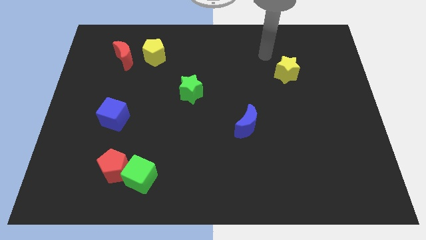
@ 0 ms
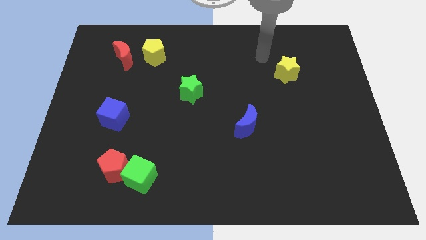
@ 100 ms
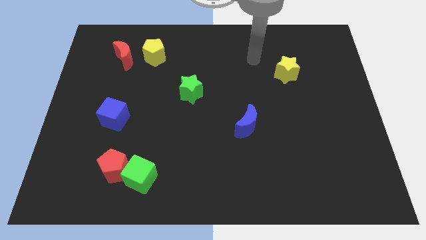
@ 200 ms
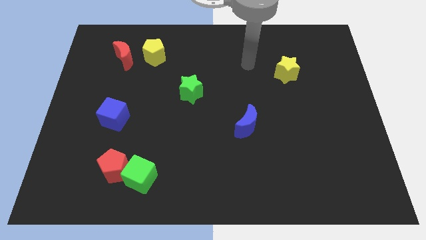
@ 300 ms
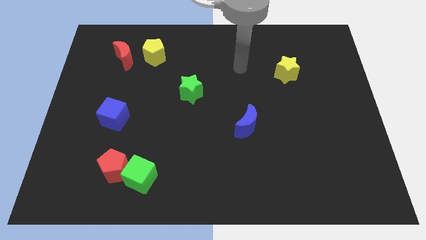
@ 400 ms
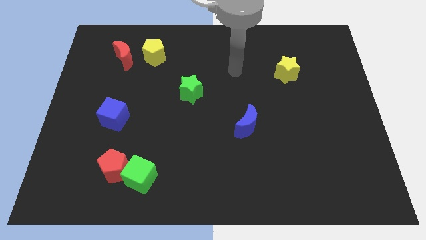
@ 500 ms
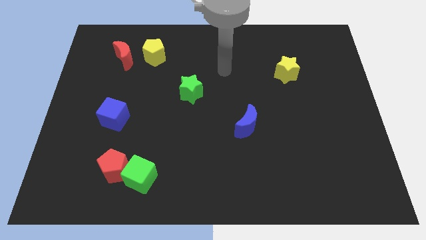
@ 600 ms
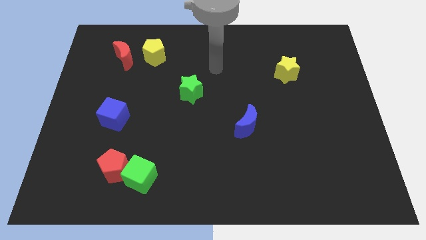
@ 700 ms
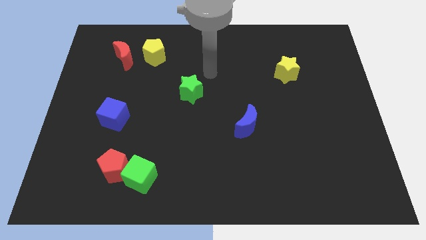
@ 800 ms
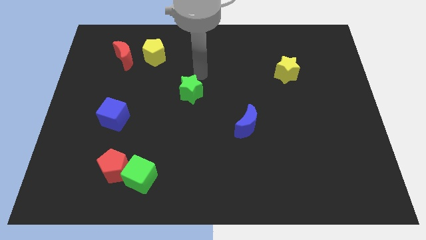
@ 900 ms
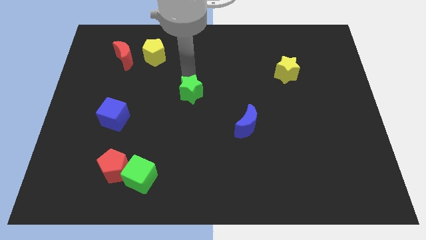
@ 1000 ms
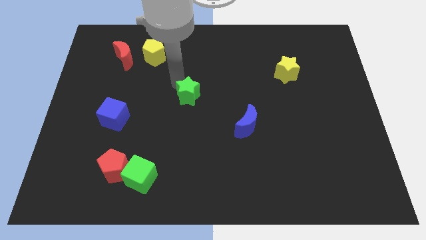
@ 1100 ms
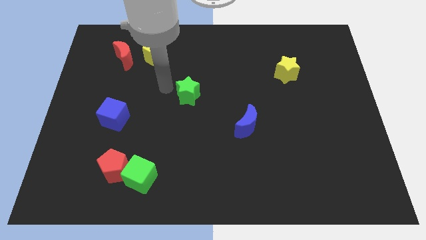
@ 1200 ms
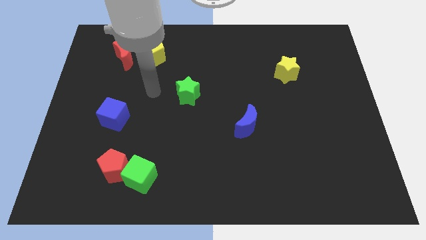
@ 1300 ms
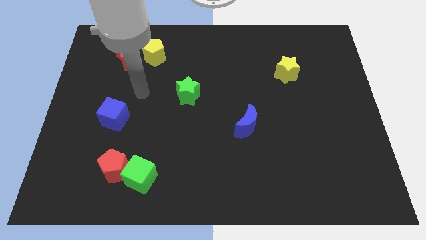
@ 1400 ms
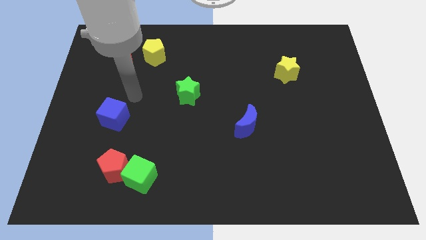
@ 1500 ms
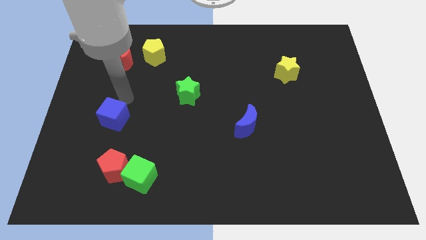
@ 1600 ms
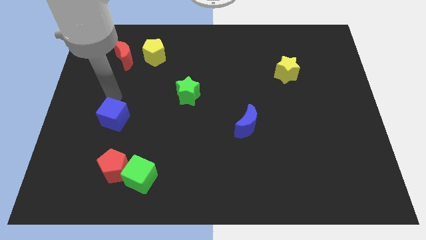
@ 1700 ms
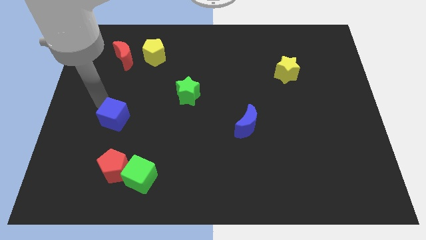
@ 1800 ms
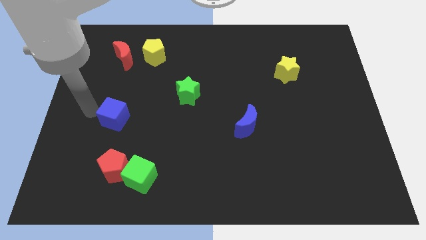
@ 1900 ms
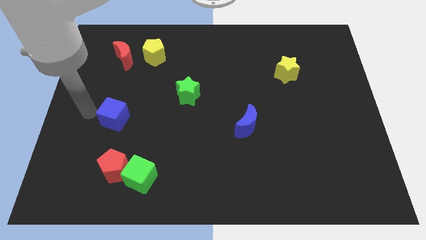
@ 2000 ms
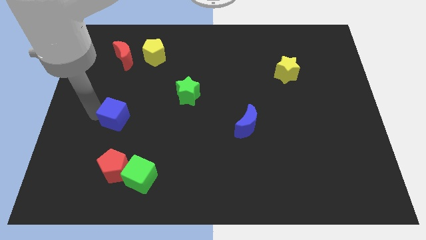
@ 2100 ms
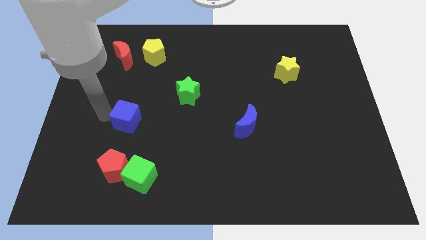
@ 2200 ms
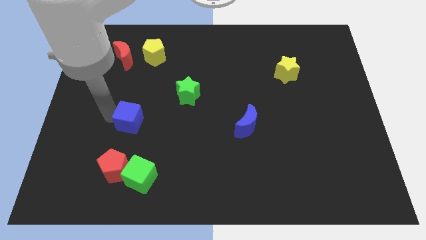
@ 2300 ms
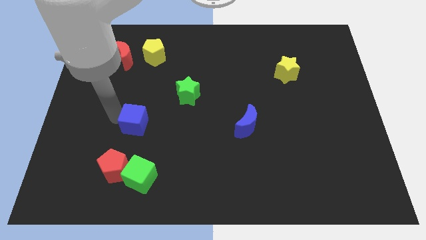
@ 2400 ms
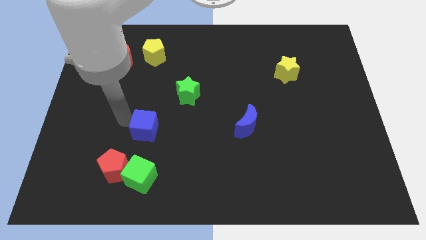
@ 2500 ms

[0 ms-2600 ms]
move the blue cube slightly right

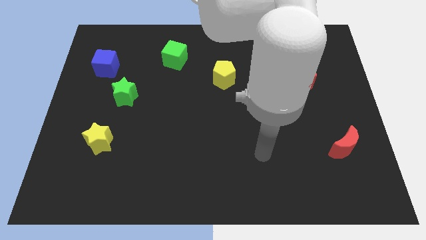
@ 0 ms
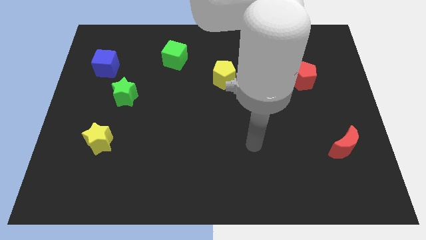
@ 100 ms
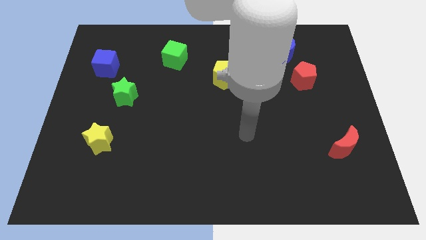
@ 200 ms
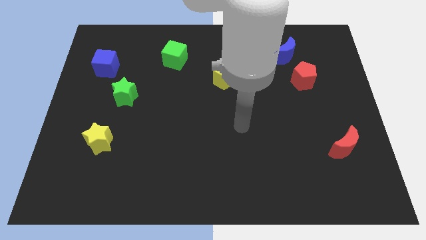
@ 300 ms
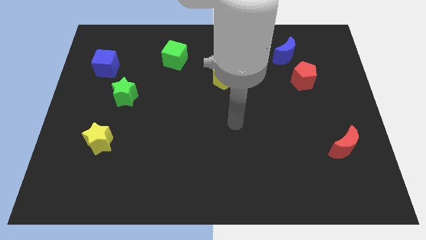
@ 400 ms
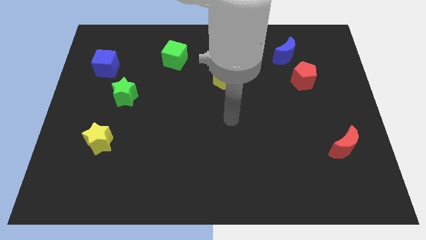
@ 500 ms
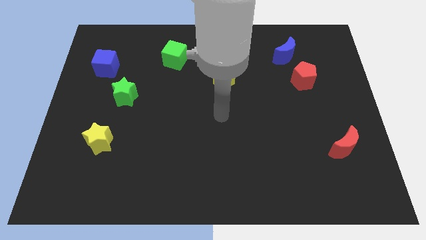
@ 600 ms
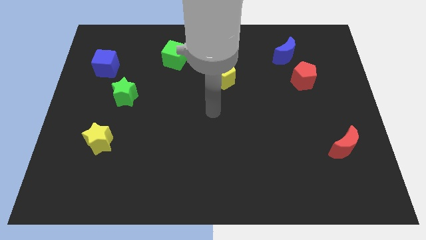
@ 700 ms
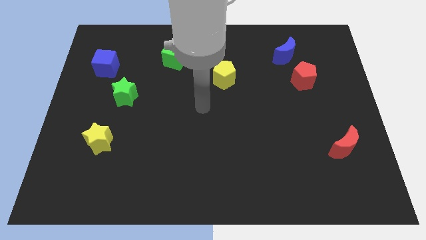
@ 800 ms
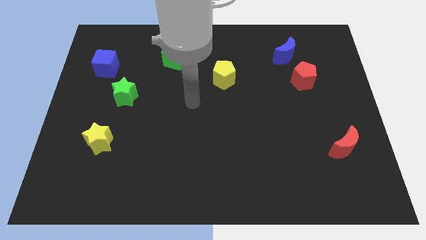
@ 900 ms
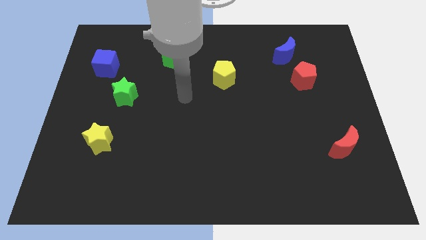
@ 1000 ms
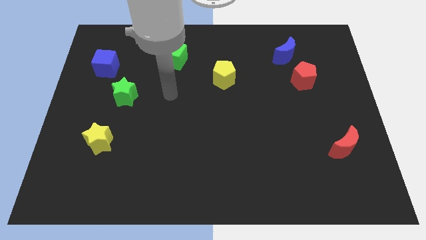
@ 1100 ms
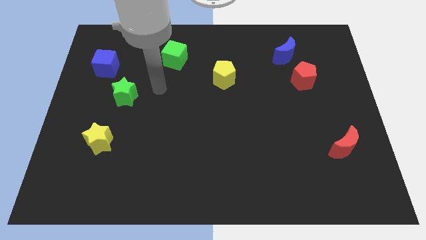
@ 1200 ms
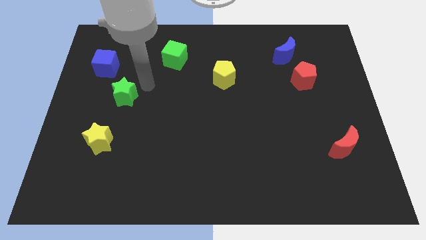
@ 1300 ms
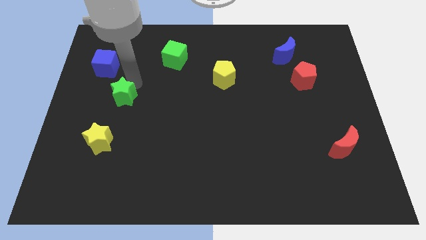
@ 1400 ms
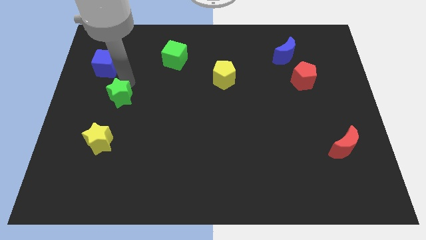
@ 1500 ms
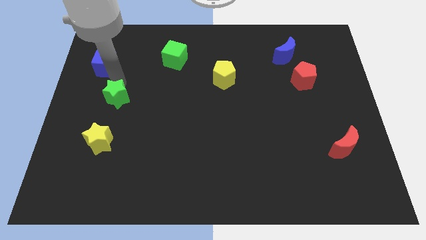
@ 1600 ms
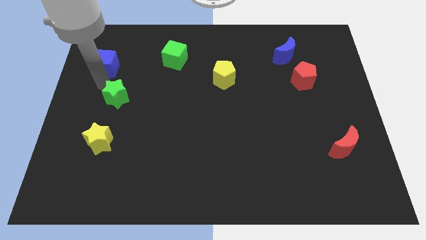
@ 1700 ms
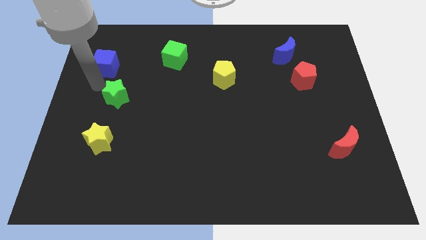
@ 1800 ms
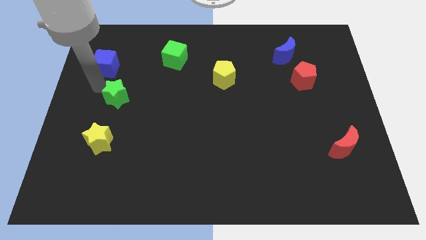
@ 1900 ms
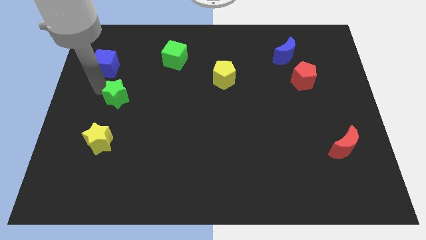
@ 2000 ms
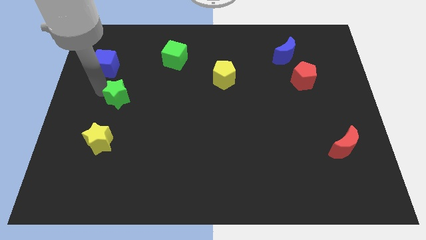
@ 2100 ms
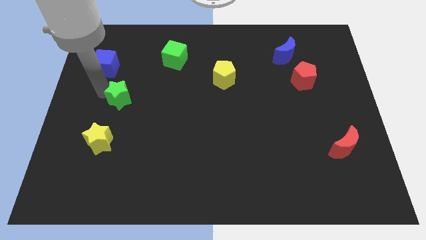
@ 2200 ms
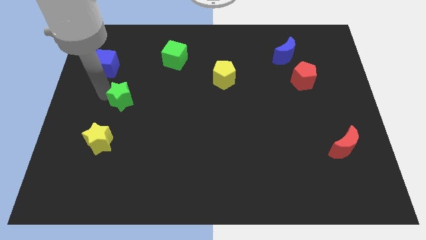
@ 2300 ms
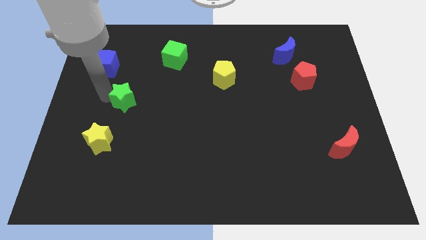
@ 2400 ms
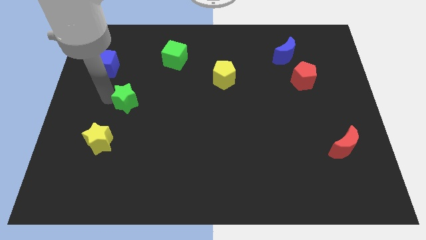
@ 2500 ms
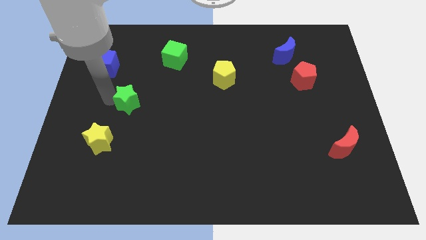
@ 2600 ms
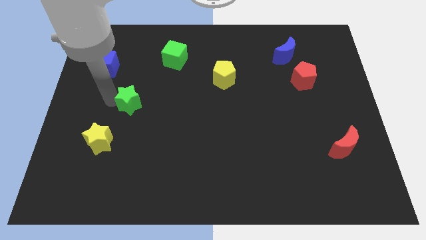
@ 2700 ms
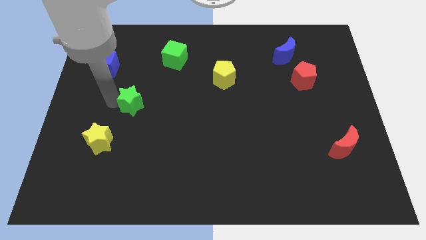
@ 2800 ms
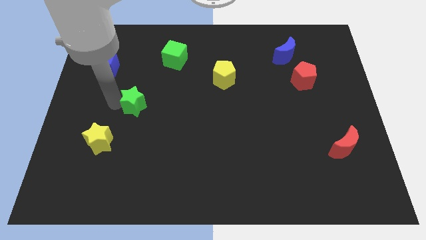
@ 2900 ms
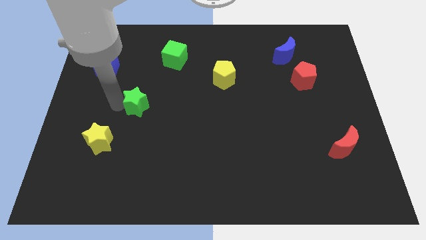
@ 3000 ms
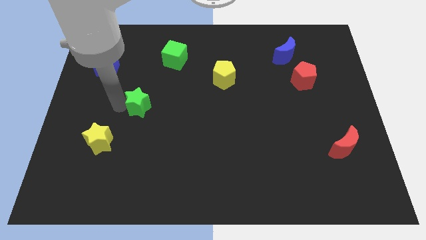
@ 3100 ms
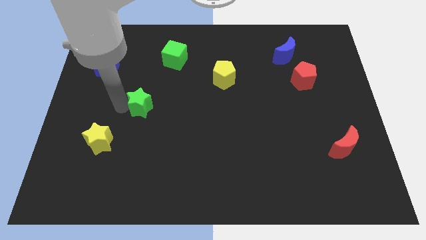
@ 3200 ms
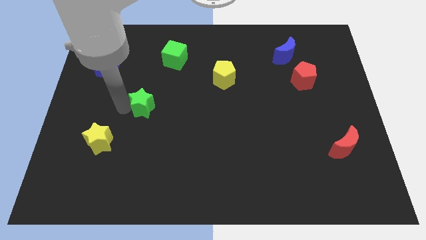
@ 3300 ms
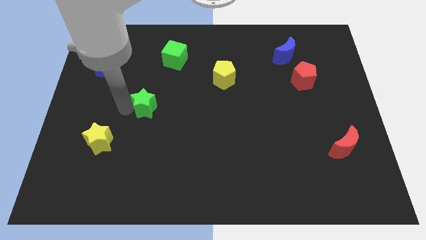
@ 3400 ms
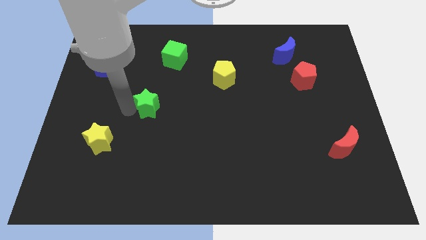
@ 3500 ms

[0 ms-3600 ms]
push the green star down and right diagonally a little

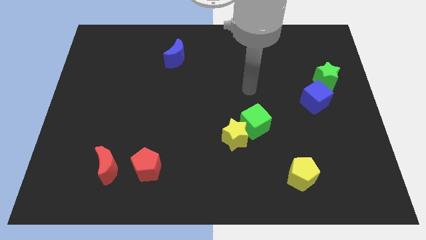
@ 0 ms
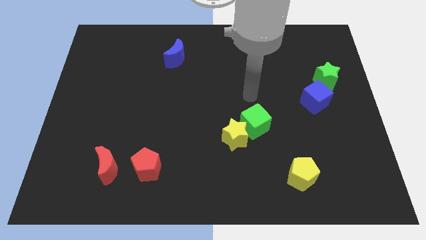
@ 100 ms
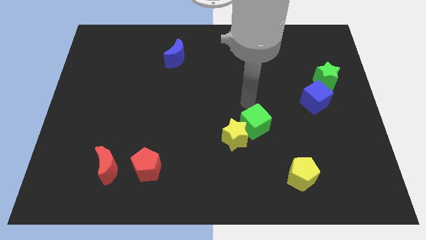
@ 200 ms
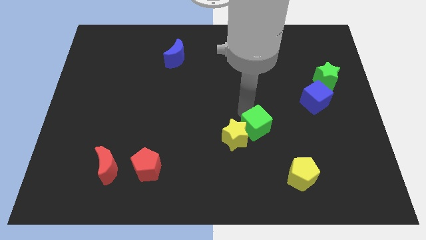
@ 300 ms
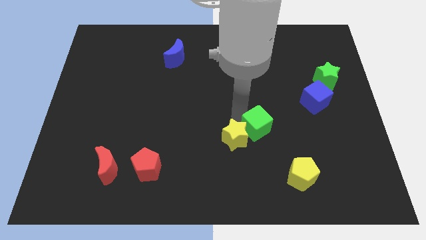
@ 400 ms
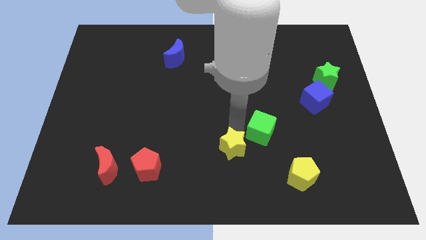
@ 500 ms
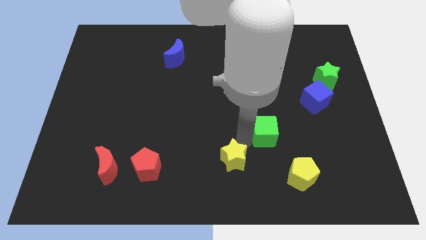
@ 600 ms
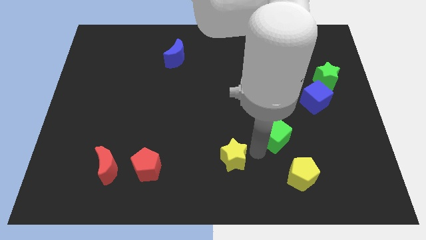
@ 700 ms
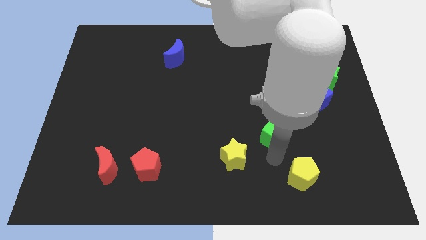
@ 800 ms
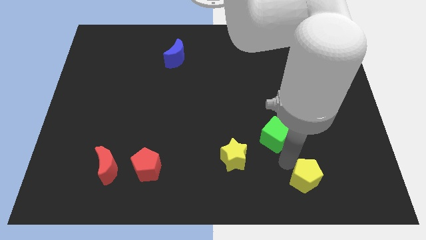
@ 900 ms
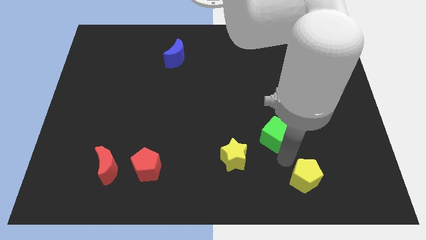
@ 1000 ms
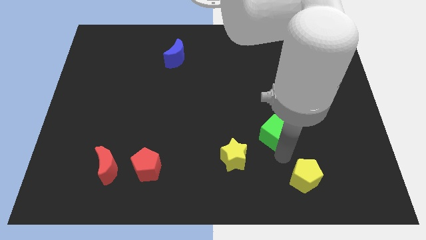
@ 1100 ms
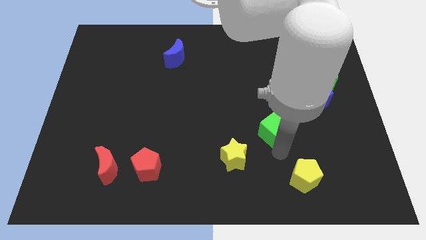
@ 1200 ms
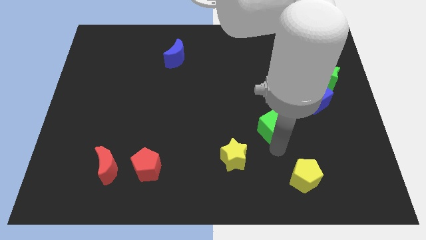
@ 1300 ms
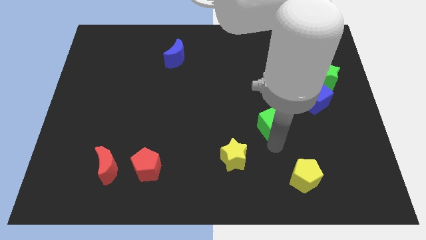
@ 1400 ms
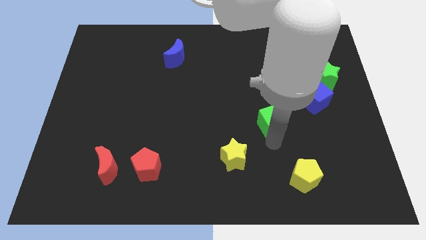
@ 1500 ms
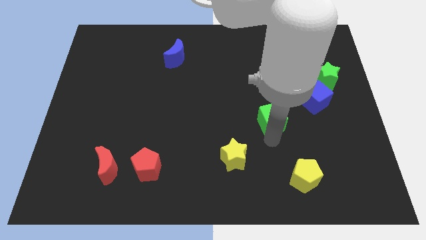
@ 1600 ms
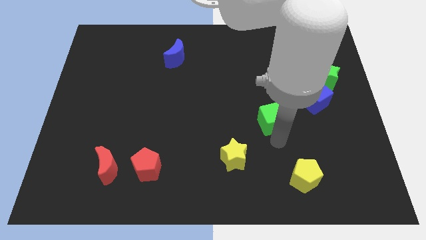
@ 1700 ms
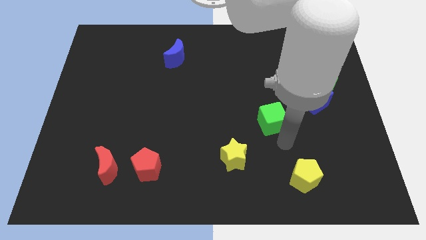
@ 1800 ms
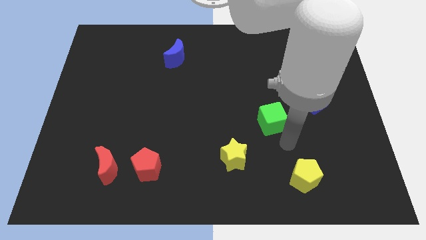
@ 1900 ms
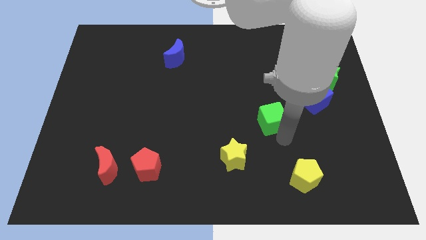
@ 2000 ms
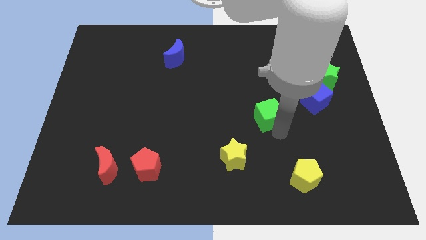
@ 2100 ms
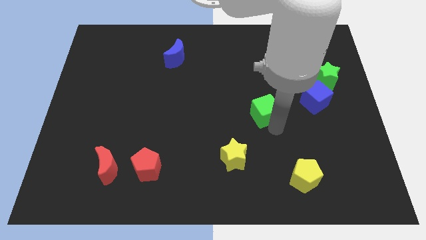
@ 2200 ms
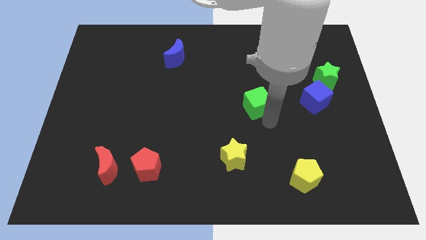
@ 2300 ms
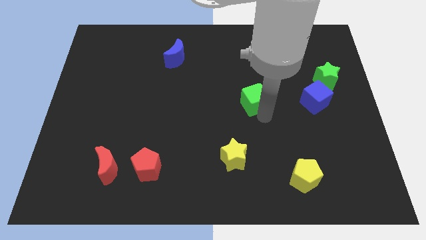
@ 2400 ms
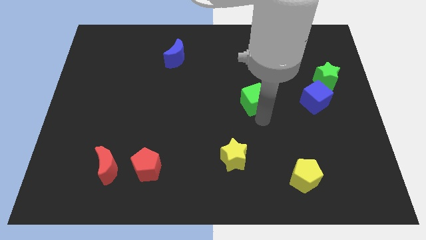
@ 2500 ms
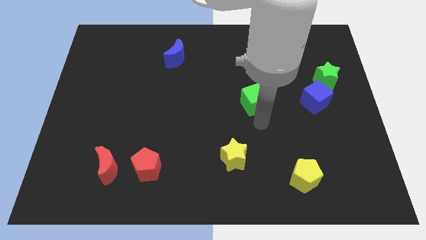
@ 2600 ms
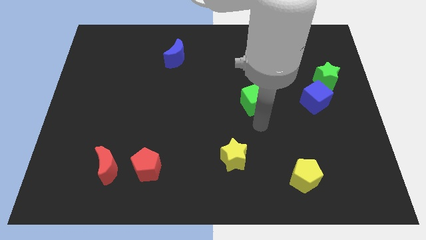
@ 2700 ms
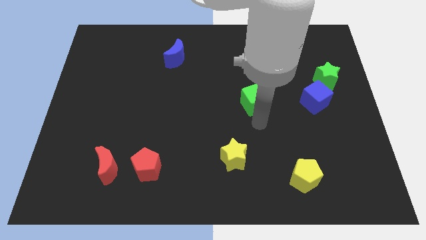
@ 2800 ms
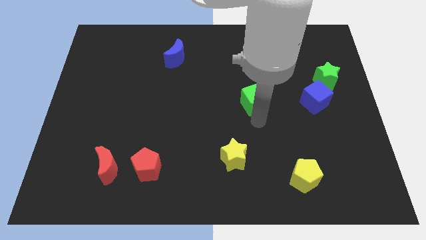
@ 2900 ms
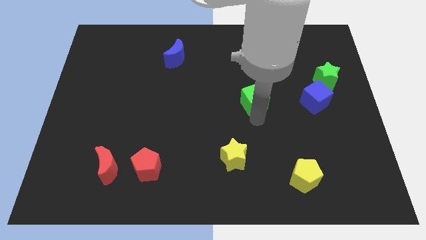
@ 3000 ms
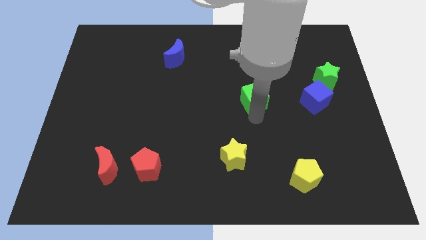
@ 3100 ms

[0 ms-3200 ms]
slightly slide the green cube up
